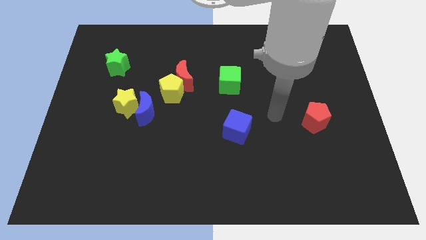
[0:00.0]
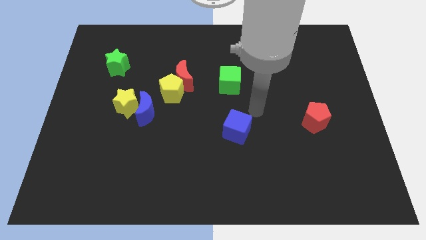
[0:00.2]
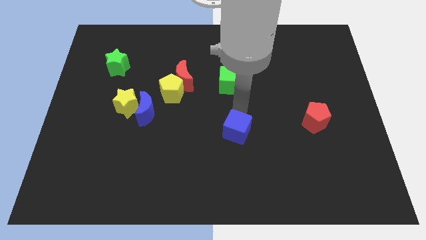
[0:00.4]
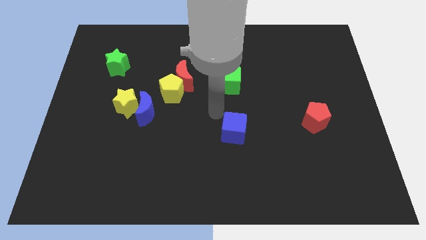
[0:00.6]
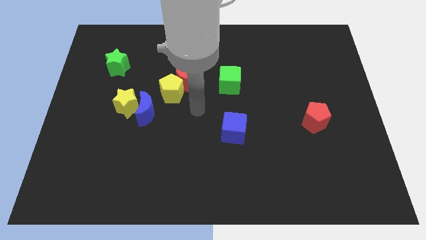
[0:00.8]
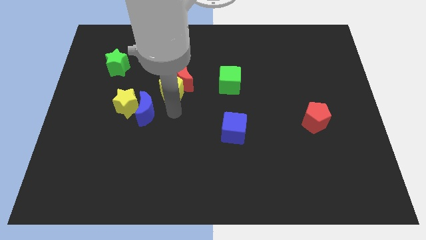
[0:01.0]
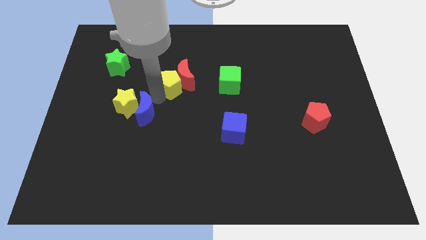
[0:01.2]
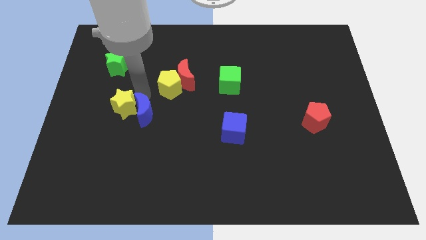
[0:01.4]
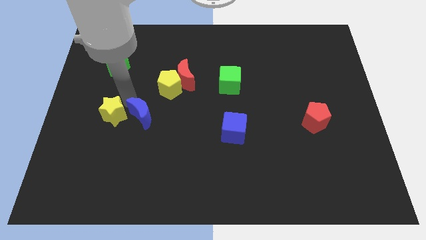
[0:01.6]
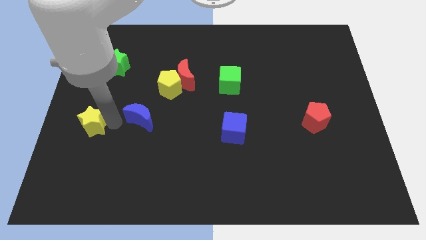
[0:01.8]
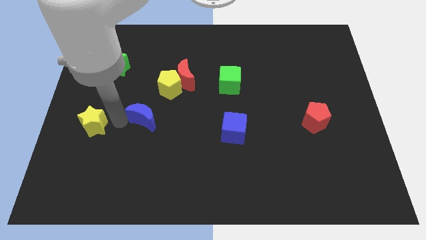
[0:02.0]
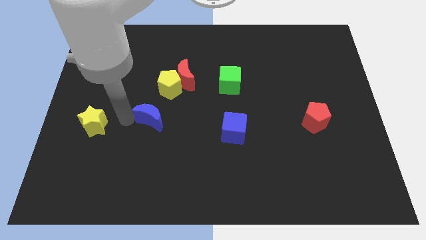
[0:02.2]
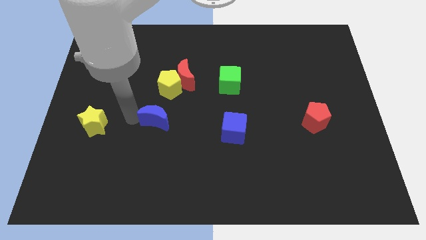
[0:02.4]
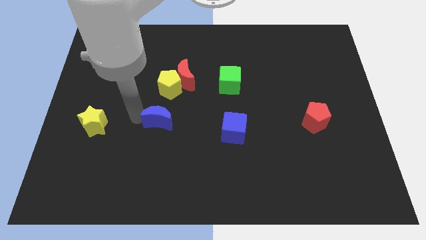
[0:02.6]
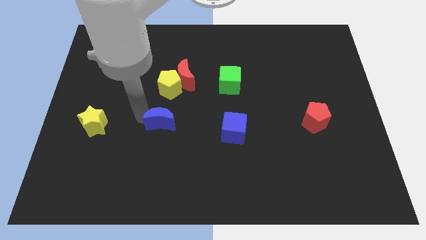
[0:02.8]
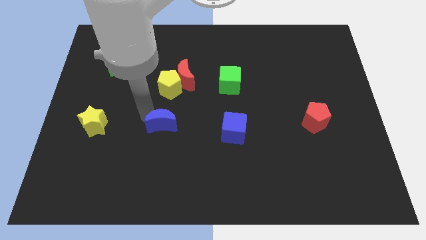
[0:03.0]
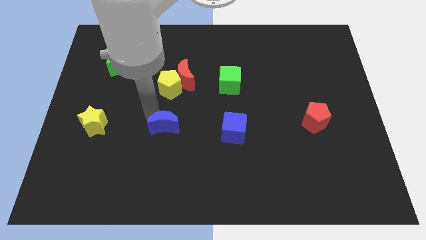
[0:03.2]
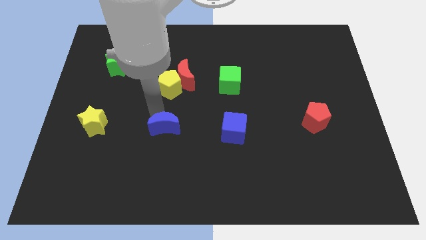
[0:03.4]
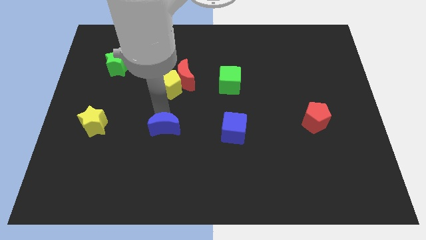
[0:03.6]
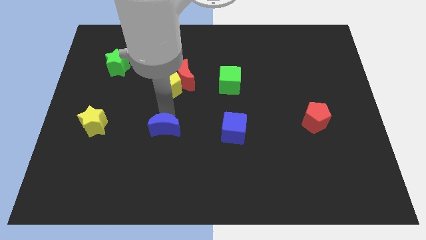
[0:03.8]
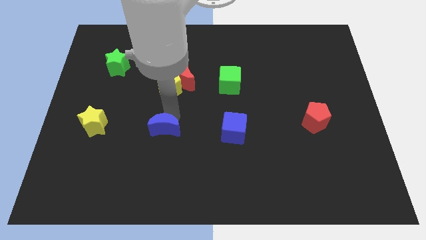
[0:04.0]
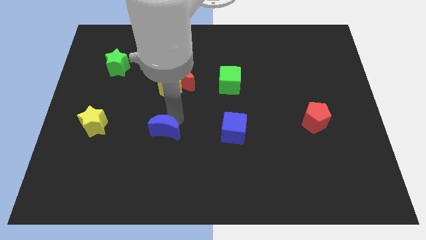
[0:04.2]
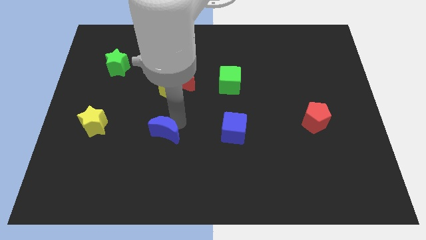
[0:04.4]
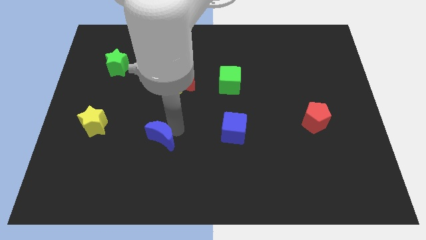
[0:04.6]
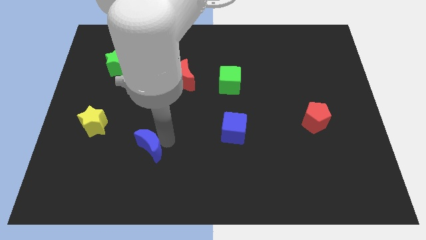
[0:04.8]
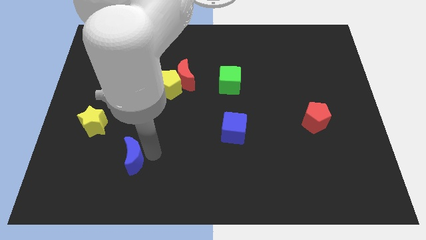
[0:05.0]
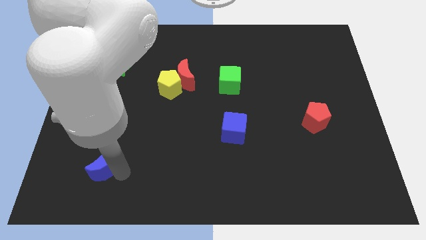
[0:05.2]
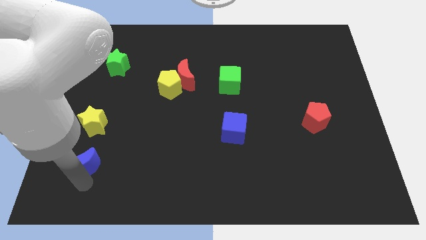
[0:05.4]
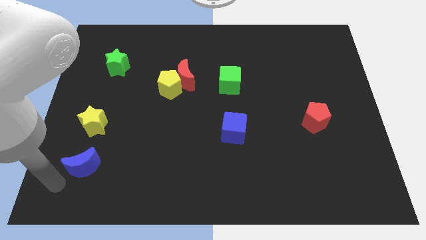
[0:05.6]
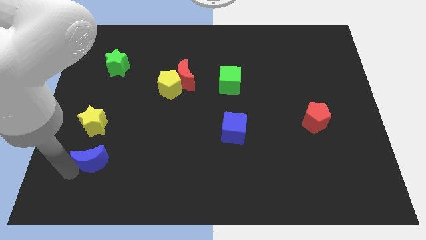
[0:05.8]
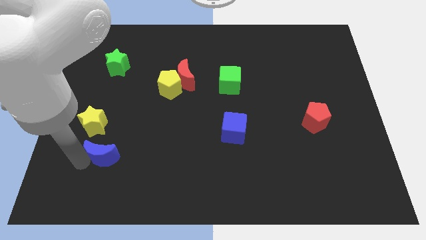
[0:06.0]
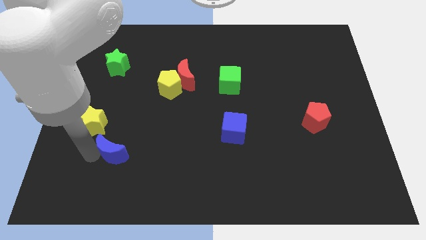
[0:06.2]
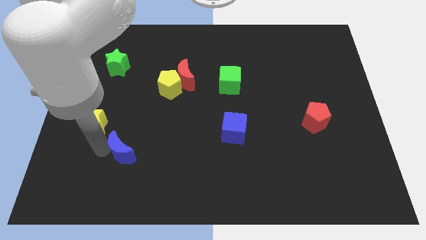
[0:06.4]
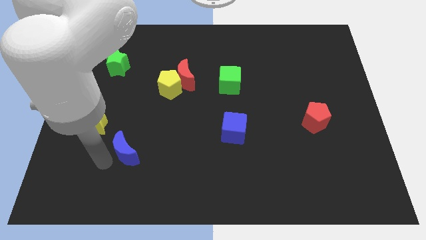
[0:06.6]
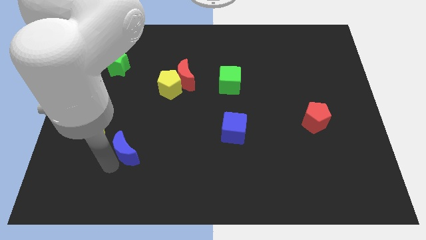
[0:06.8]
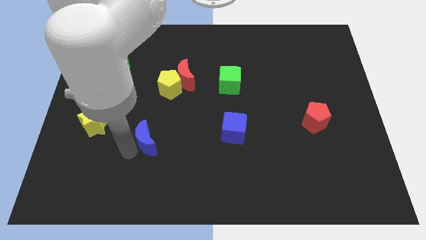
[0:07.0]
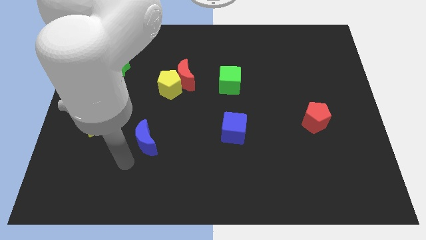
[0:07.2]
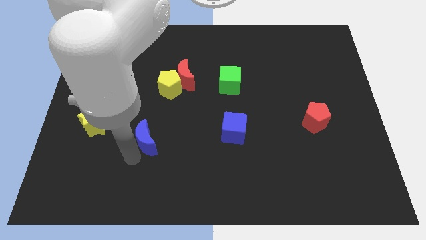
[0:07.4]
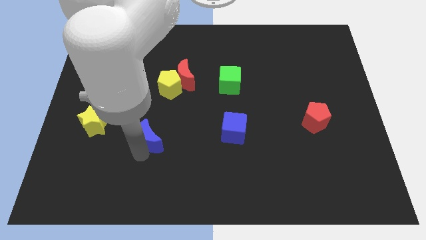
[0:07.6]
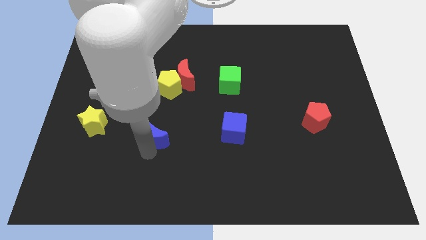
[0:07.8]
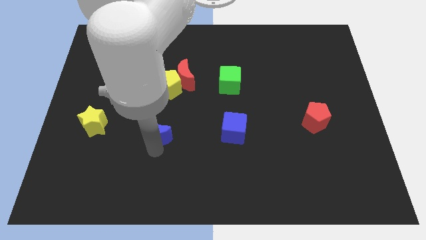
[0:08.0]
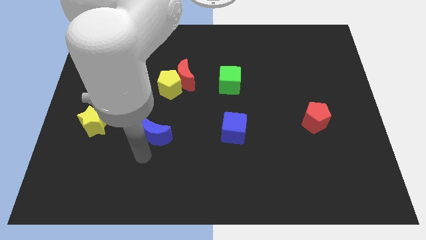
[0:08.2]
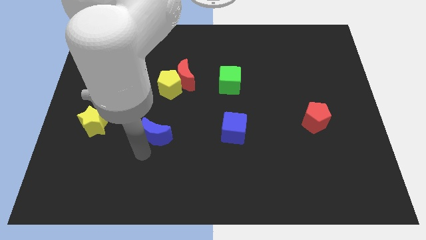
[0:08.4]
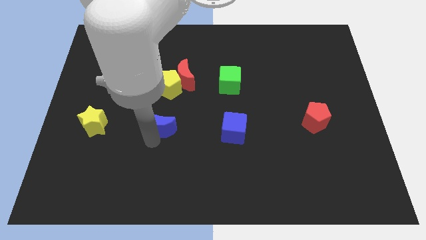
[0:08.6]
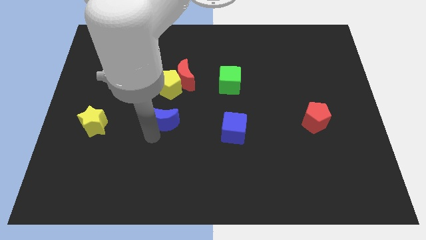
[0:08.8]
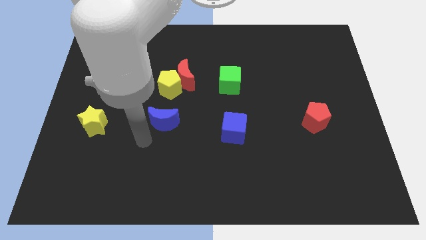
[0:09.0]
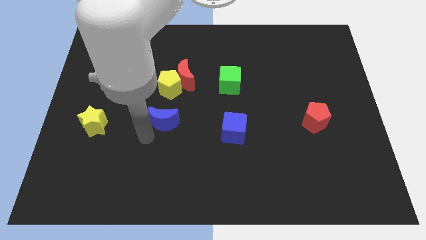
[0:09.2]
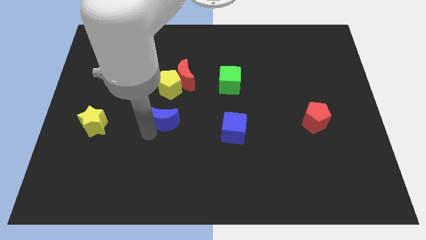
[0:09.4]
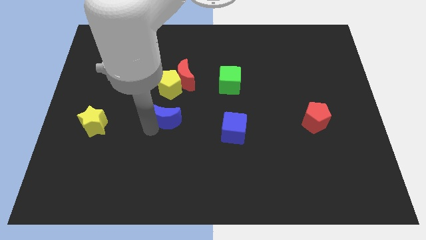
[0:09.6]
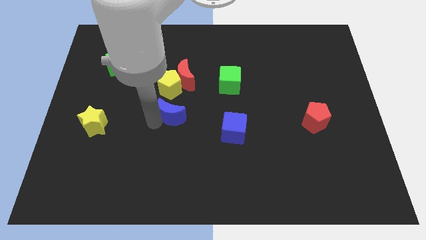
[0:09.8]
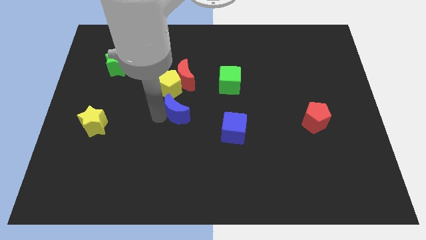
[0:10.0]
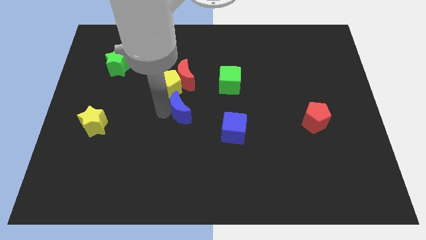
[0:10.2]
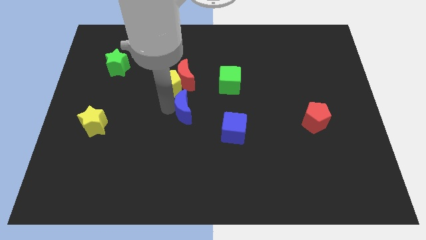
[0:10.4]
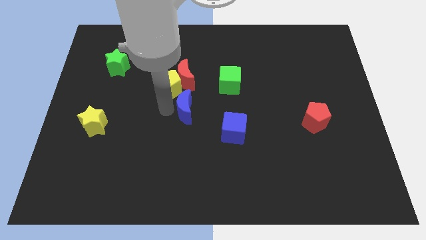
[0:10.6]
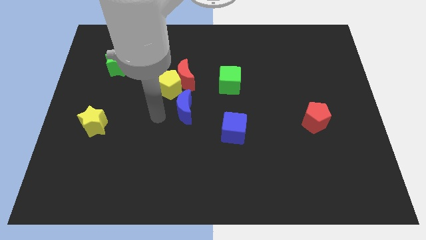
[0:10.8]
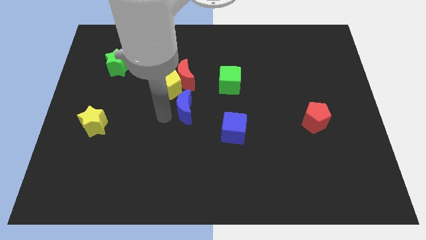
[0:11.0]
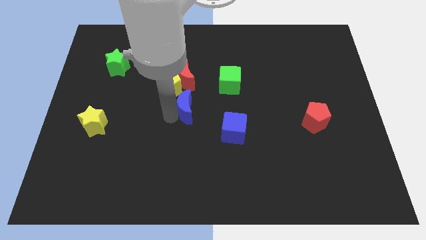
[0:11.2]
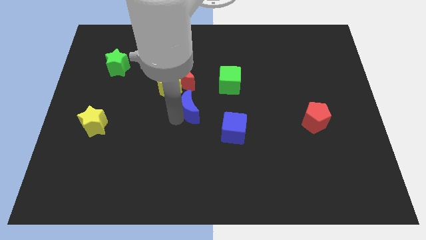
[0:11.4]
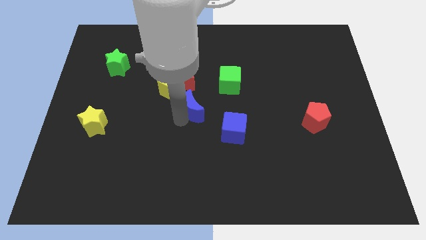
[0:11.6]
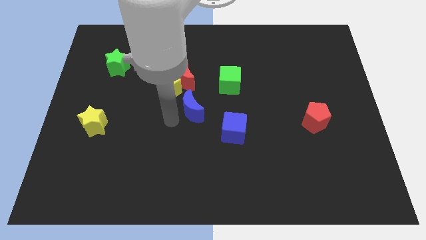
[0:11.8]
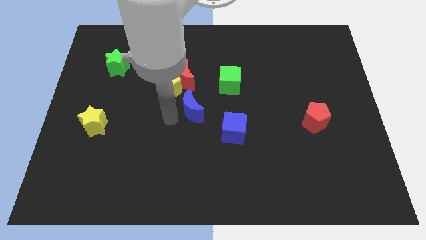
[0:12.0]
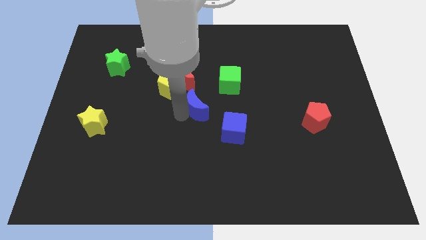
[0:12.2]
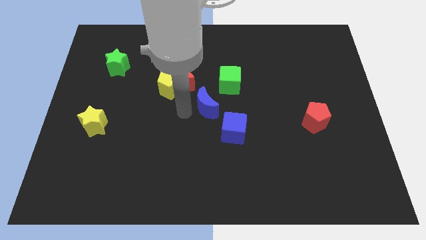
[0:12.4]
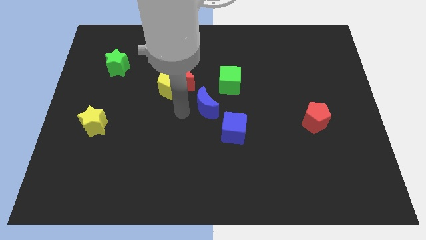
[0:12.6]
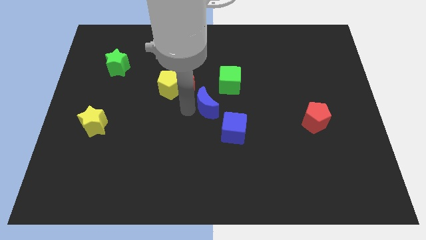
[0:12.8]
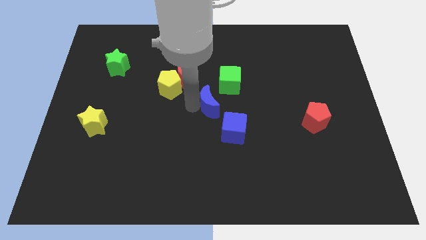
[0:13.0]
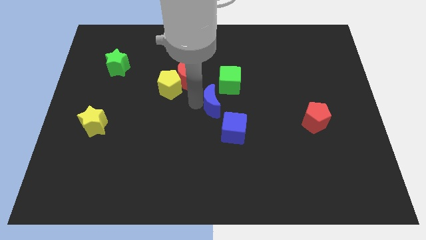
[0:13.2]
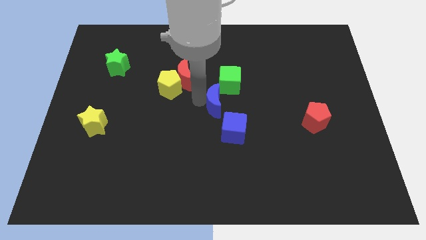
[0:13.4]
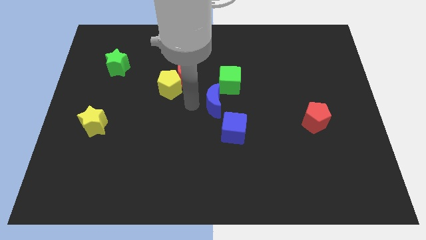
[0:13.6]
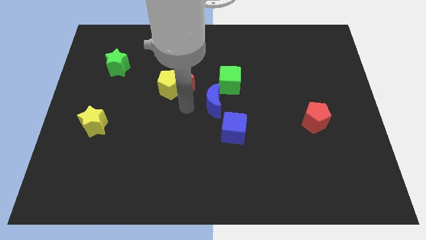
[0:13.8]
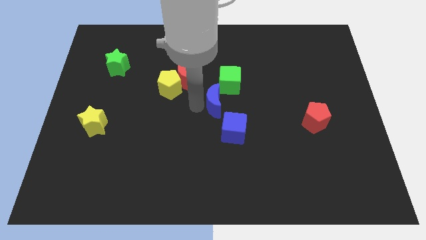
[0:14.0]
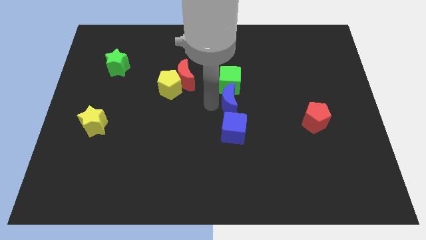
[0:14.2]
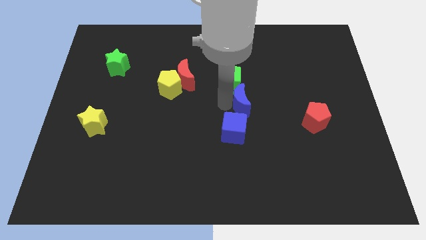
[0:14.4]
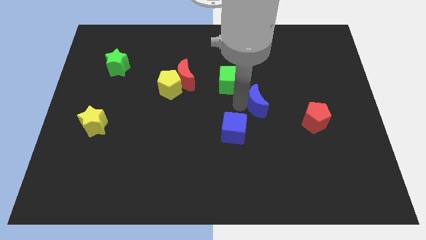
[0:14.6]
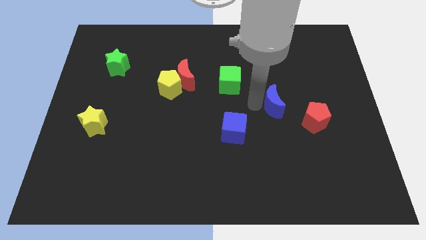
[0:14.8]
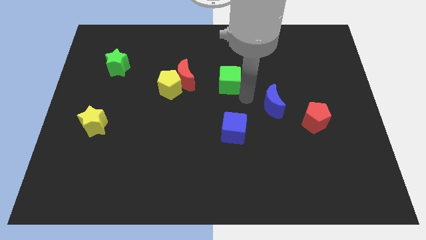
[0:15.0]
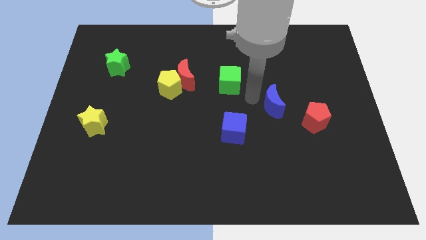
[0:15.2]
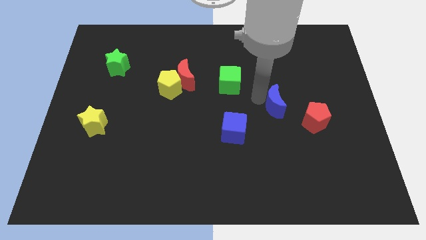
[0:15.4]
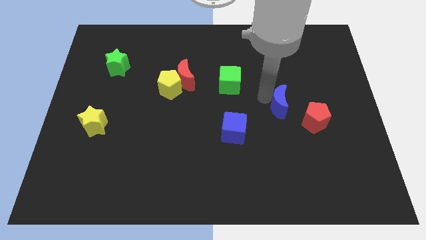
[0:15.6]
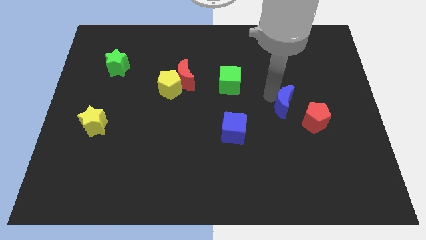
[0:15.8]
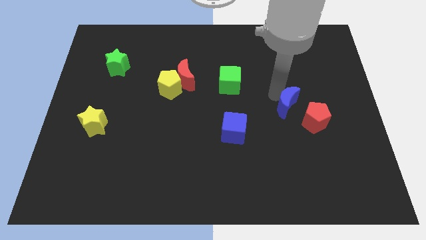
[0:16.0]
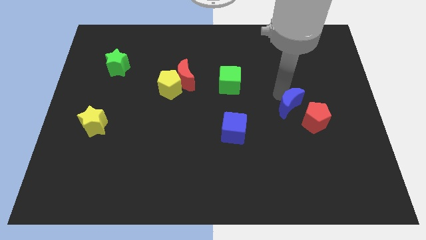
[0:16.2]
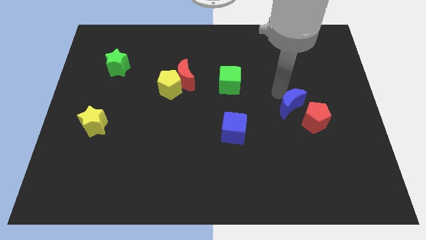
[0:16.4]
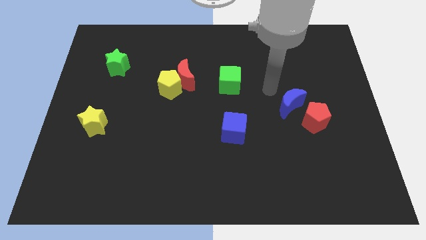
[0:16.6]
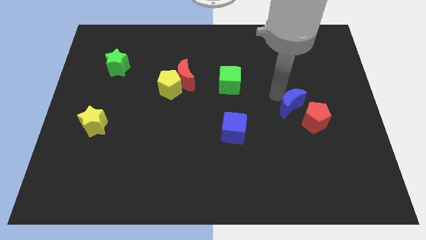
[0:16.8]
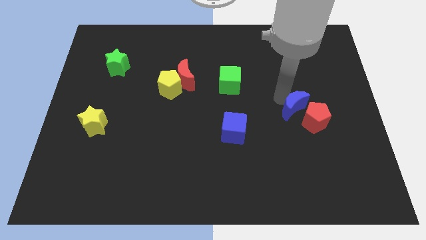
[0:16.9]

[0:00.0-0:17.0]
put the blue moon to the red pentagon
